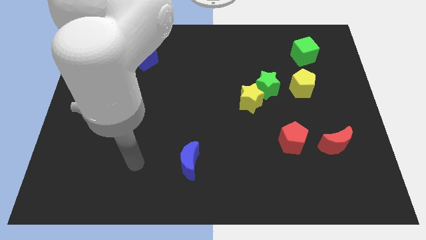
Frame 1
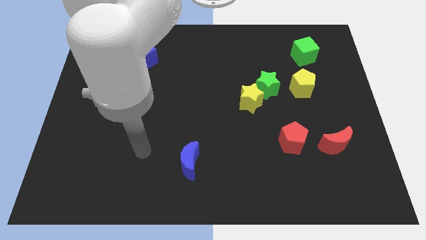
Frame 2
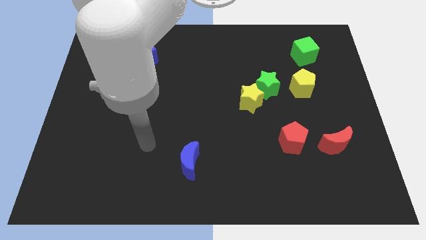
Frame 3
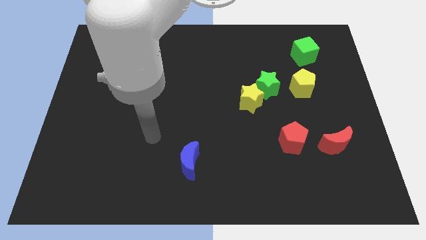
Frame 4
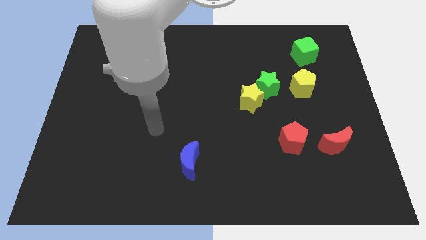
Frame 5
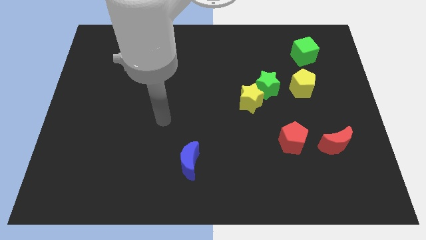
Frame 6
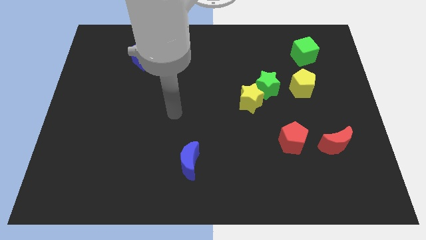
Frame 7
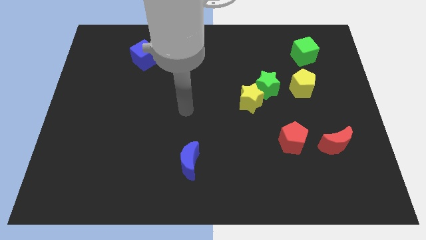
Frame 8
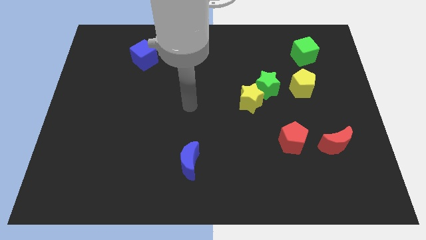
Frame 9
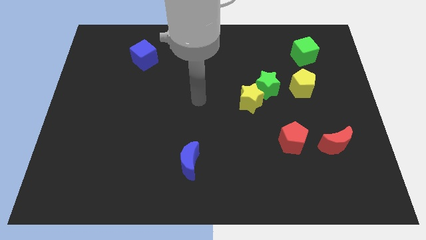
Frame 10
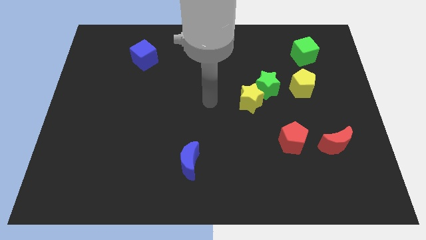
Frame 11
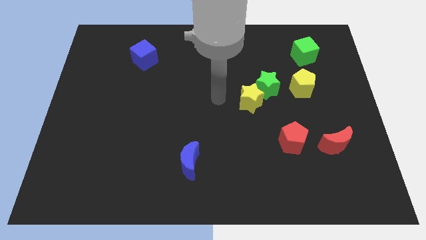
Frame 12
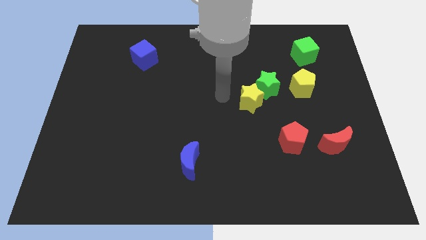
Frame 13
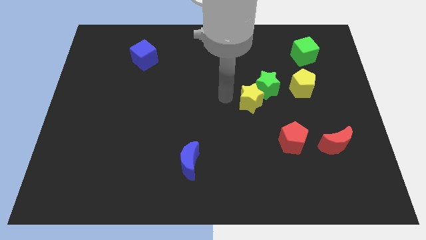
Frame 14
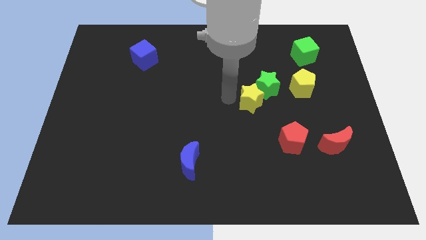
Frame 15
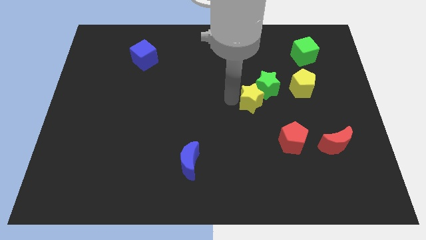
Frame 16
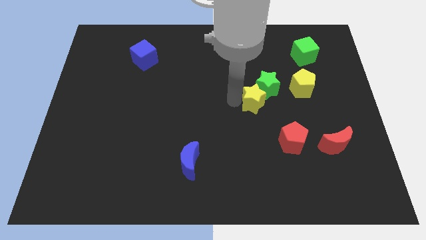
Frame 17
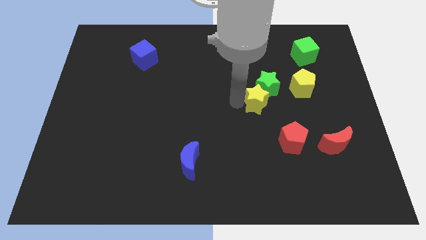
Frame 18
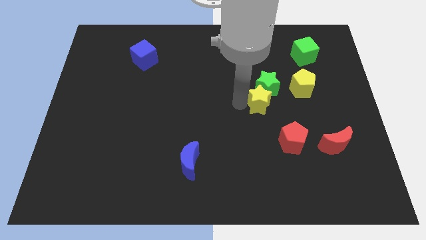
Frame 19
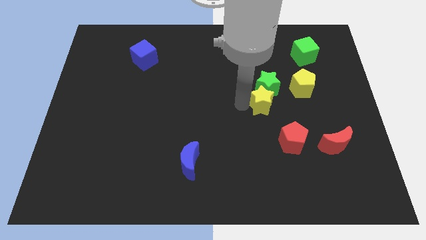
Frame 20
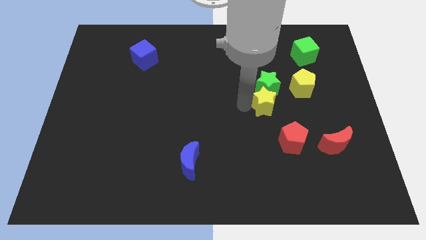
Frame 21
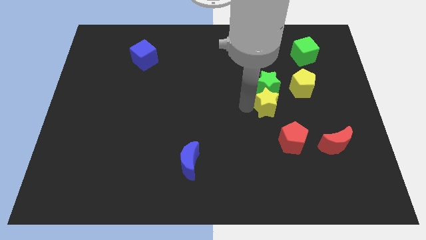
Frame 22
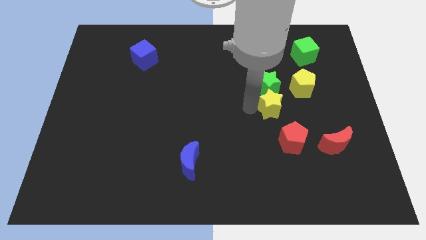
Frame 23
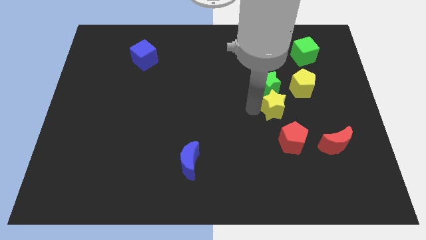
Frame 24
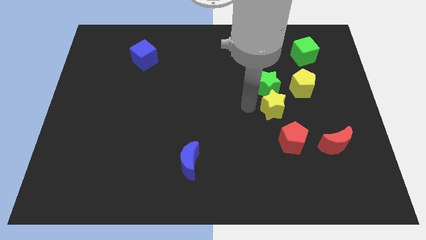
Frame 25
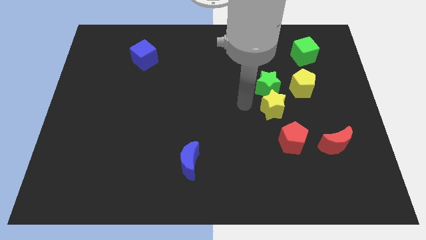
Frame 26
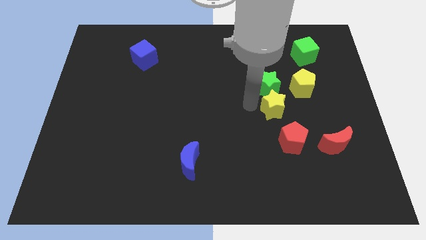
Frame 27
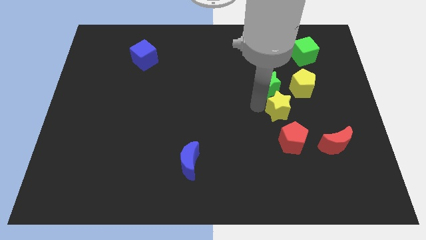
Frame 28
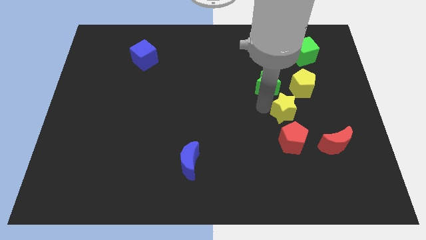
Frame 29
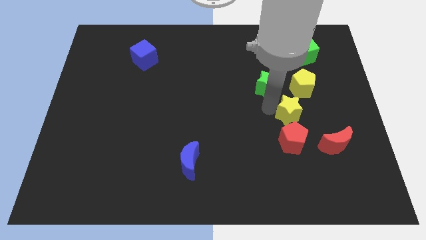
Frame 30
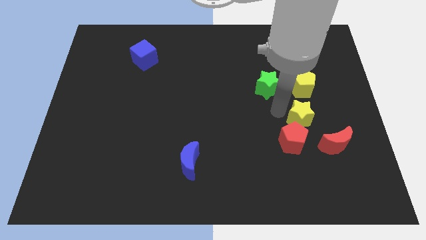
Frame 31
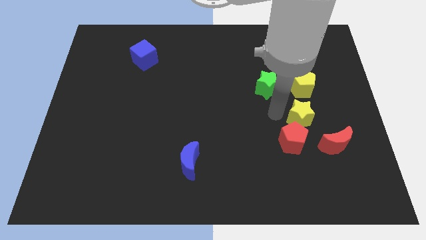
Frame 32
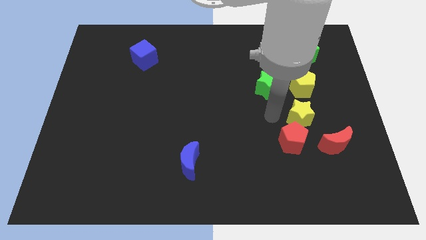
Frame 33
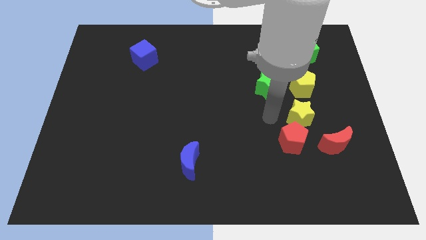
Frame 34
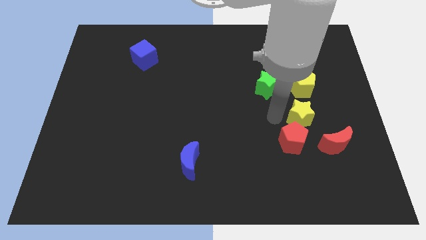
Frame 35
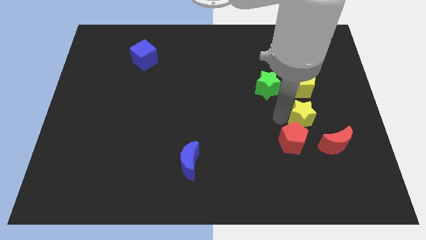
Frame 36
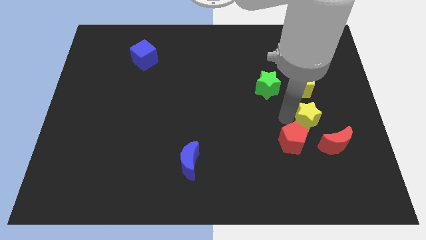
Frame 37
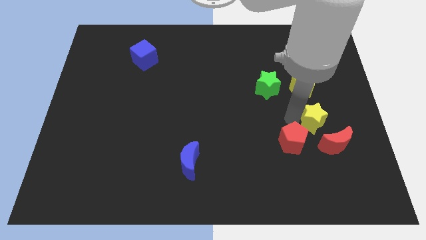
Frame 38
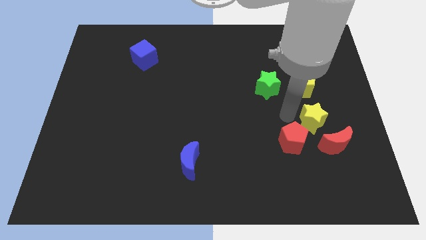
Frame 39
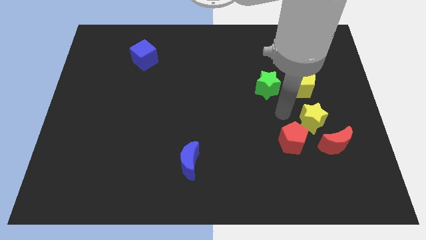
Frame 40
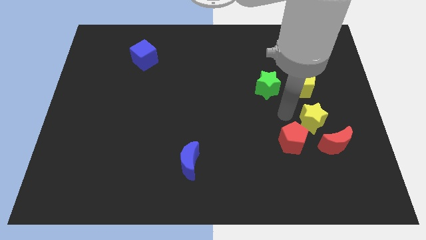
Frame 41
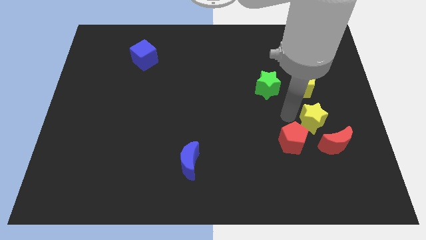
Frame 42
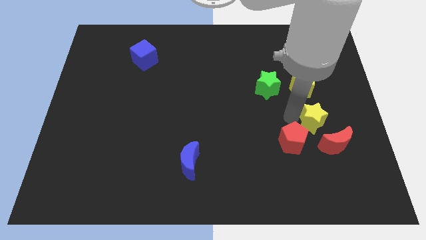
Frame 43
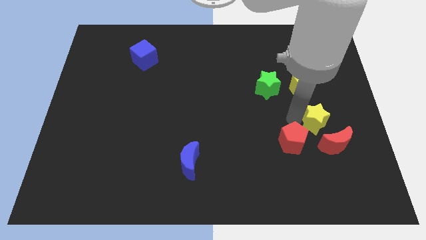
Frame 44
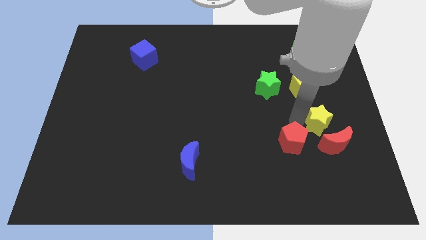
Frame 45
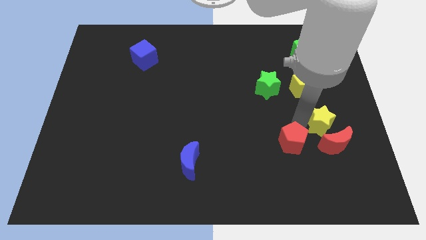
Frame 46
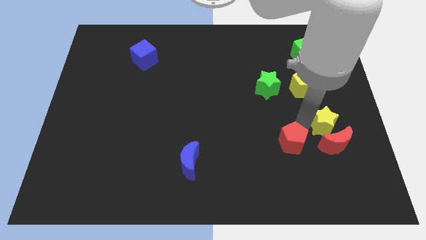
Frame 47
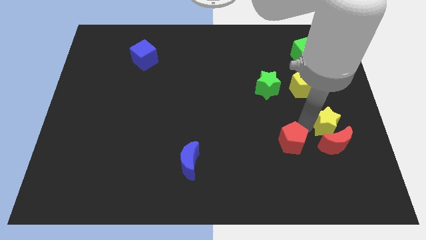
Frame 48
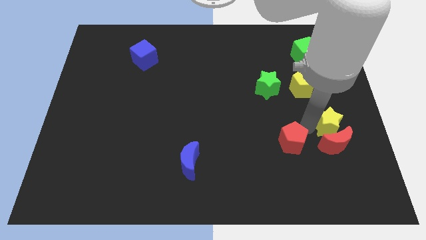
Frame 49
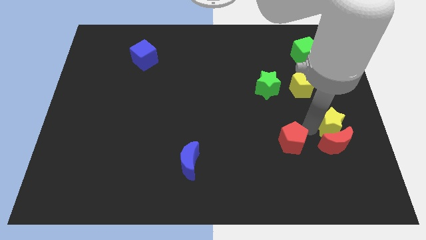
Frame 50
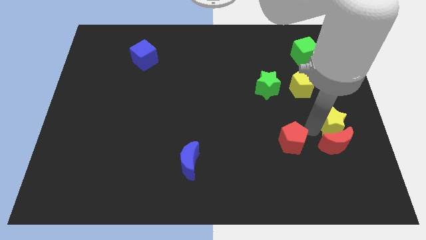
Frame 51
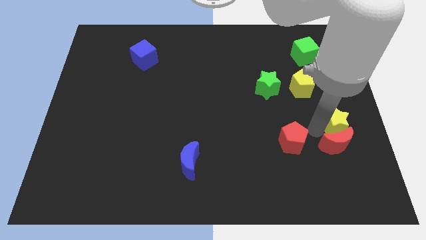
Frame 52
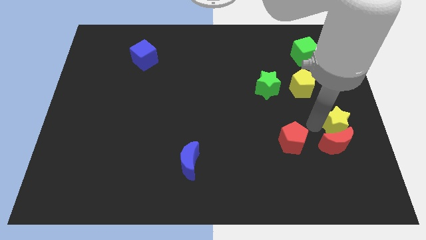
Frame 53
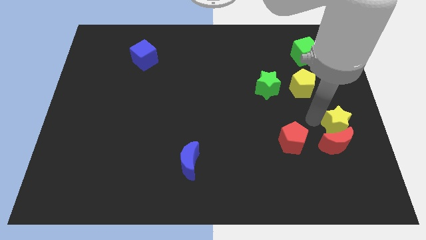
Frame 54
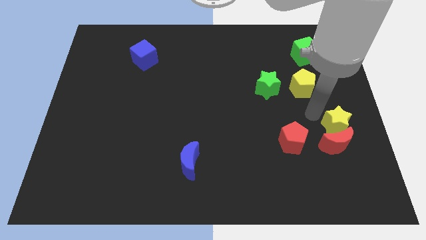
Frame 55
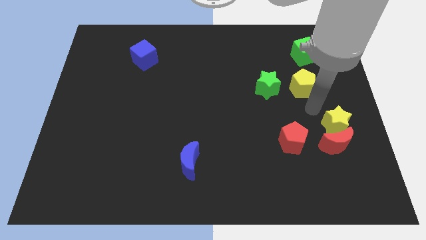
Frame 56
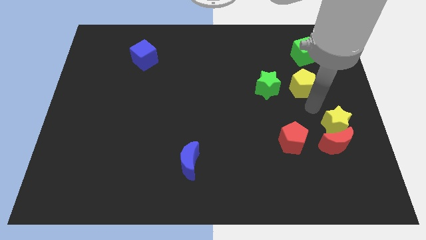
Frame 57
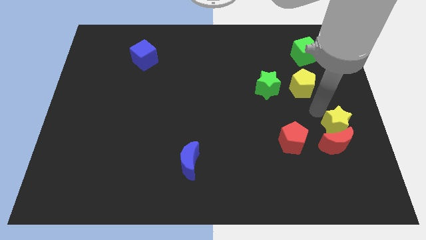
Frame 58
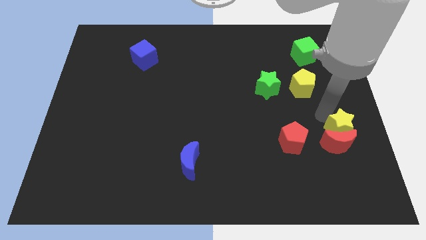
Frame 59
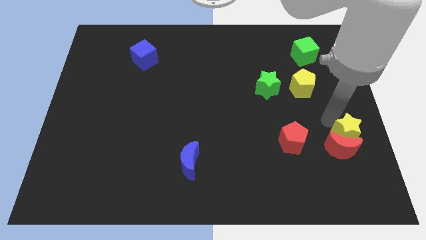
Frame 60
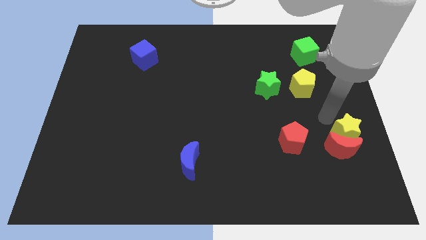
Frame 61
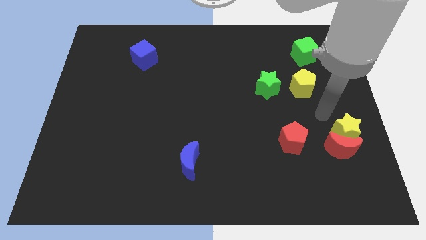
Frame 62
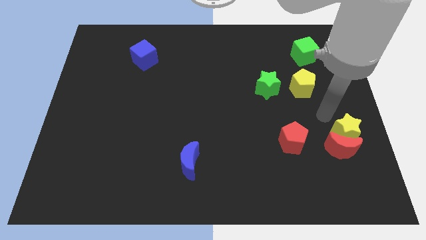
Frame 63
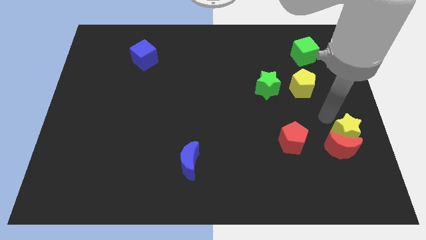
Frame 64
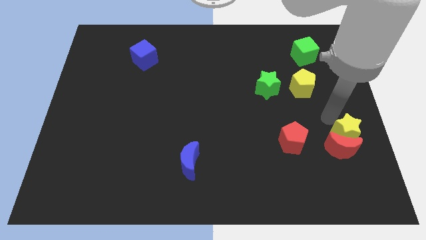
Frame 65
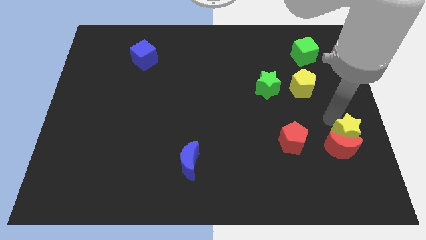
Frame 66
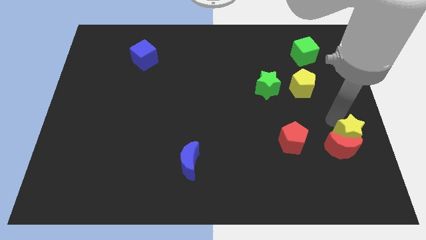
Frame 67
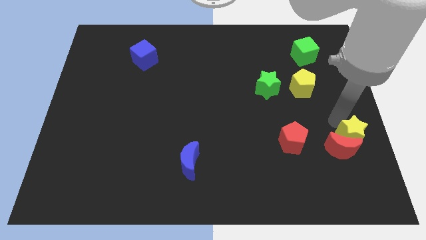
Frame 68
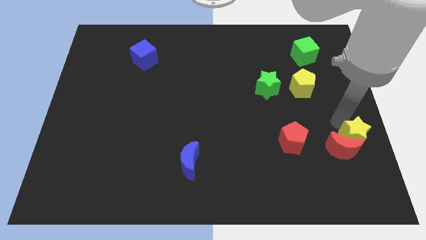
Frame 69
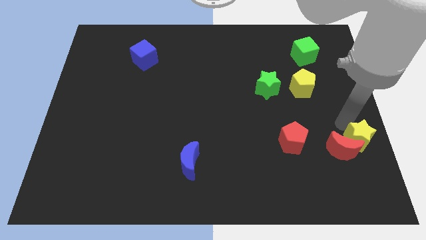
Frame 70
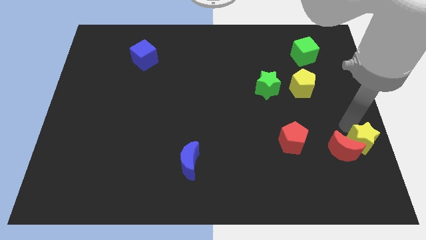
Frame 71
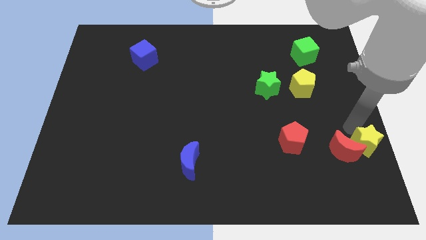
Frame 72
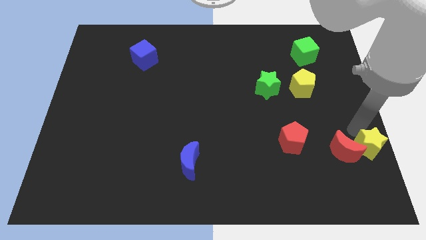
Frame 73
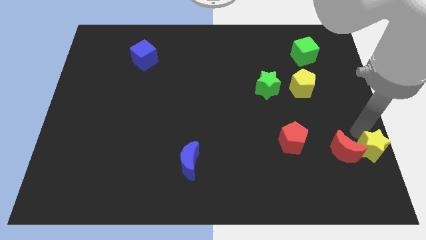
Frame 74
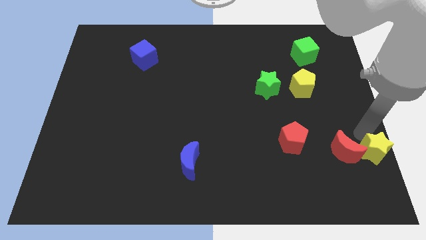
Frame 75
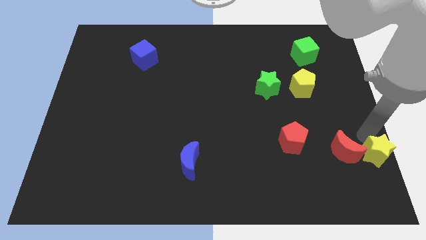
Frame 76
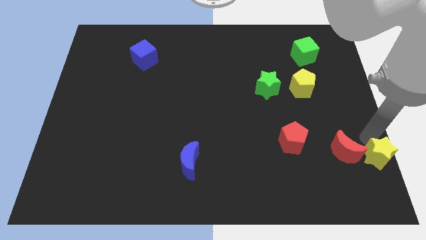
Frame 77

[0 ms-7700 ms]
move the yellow star to the bottom right of the board
